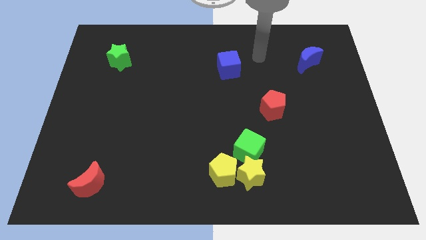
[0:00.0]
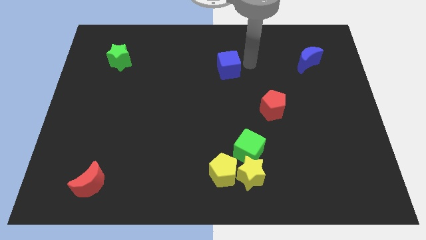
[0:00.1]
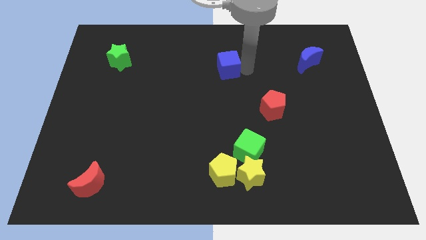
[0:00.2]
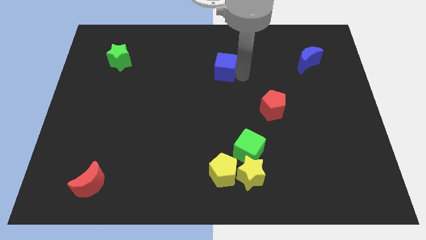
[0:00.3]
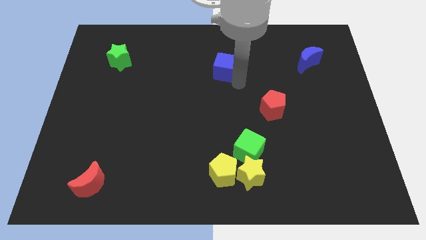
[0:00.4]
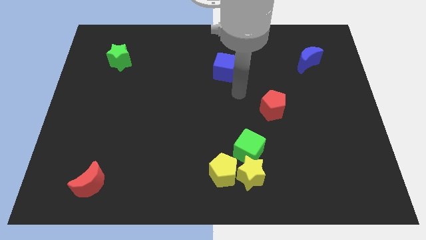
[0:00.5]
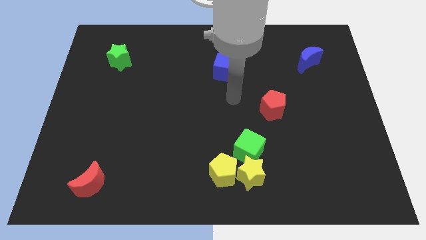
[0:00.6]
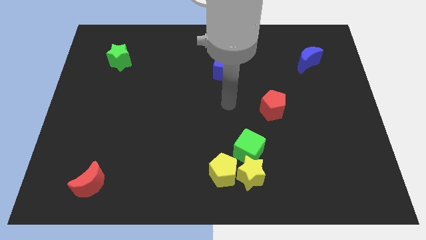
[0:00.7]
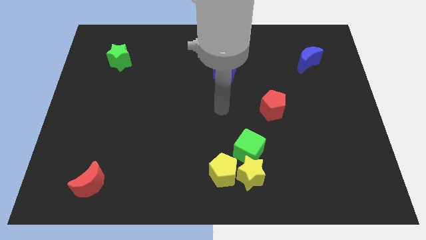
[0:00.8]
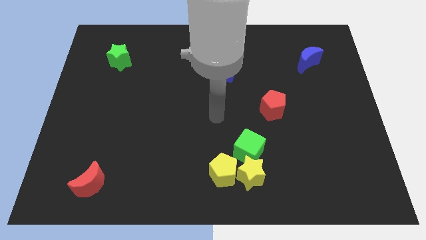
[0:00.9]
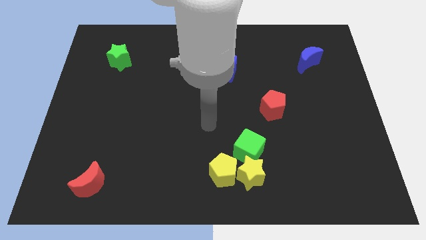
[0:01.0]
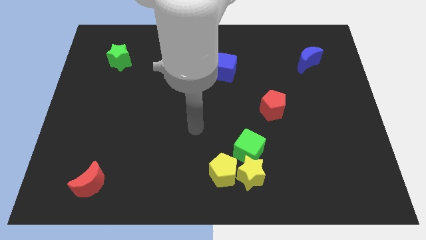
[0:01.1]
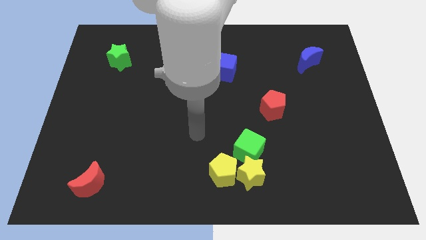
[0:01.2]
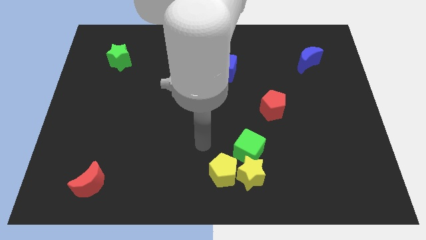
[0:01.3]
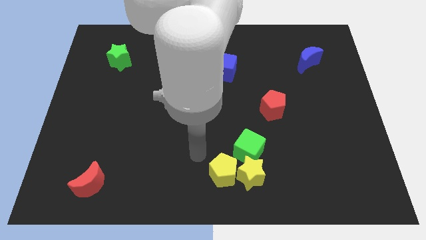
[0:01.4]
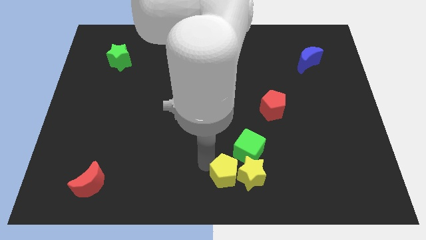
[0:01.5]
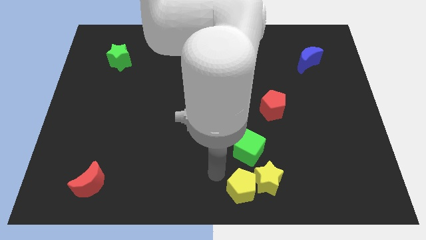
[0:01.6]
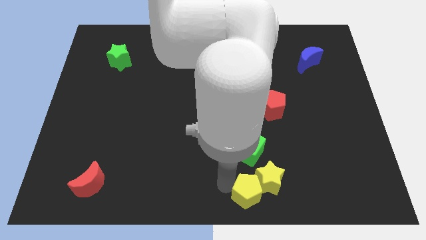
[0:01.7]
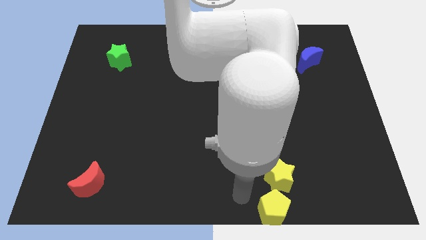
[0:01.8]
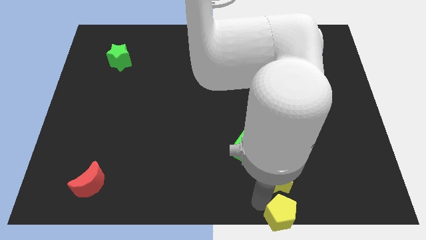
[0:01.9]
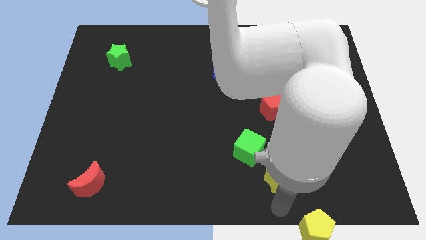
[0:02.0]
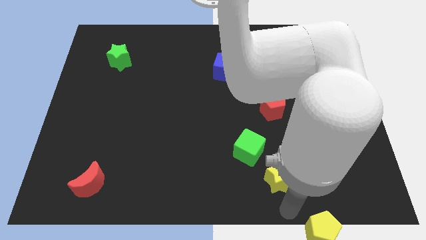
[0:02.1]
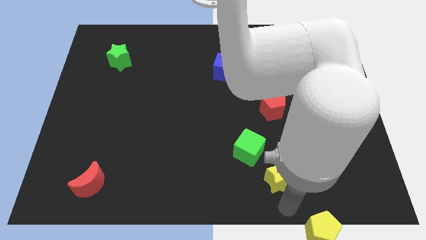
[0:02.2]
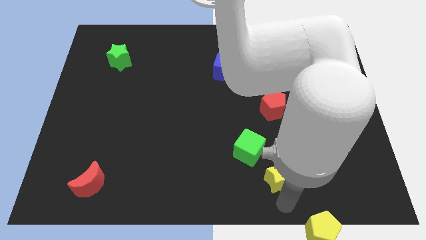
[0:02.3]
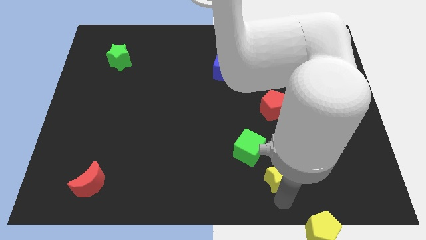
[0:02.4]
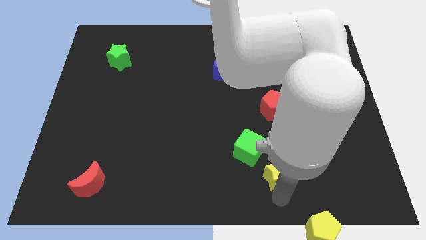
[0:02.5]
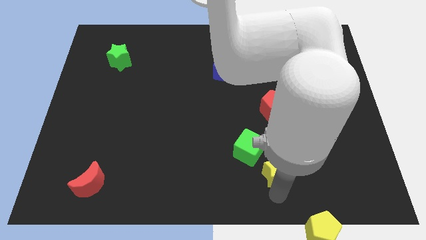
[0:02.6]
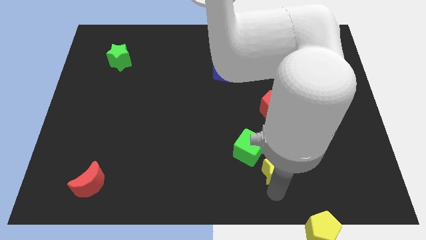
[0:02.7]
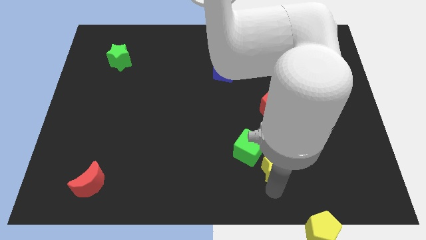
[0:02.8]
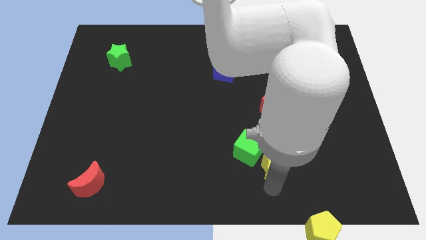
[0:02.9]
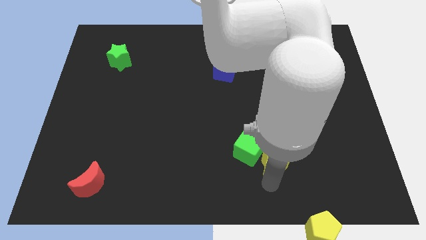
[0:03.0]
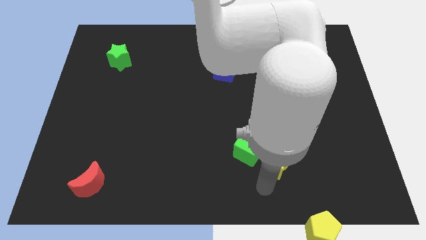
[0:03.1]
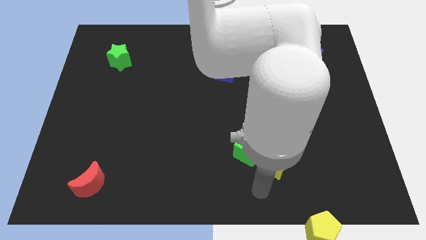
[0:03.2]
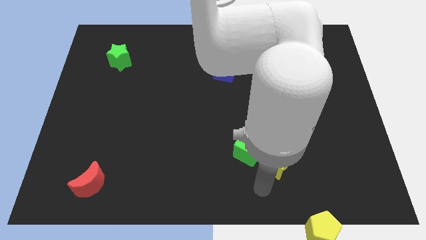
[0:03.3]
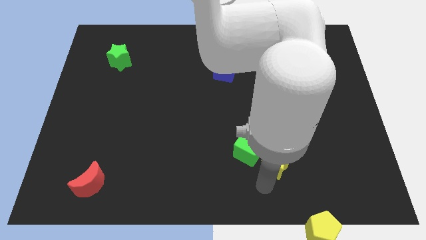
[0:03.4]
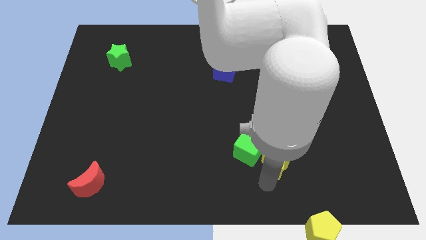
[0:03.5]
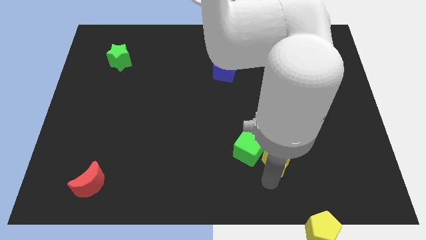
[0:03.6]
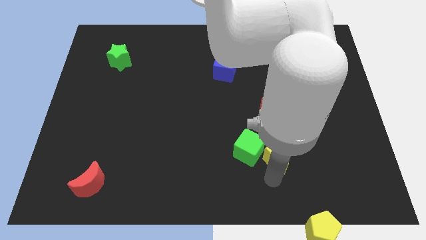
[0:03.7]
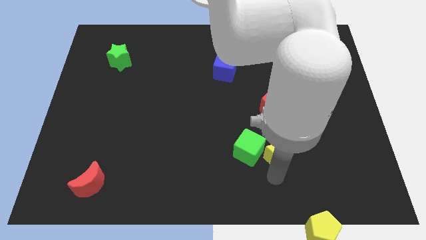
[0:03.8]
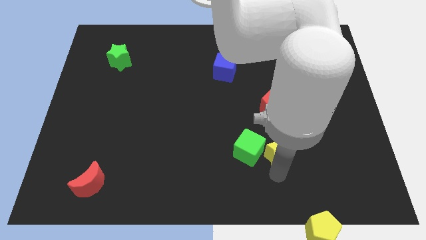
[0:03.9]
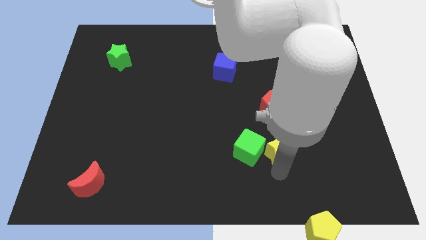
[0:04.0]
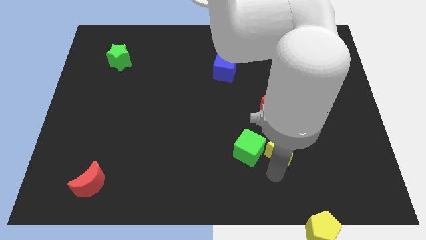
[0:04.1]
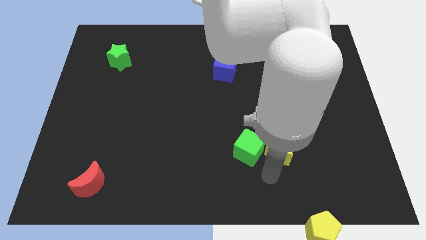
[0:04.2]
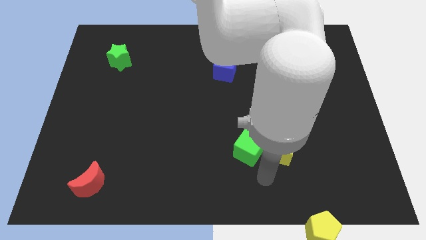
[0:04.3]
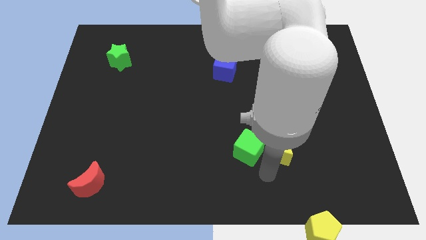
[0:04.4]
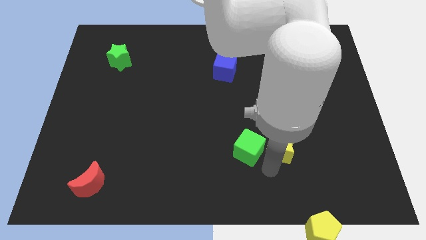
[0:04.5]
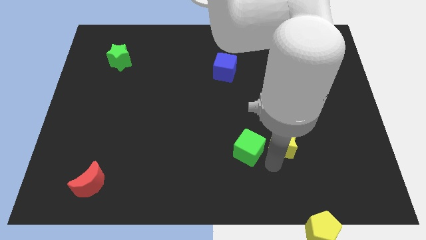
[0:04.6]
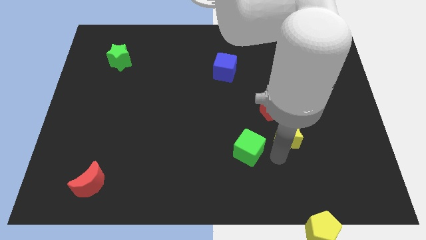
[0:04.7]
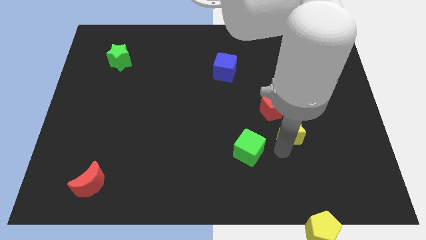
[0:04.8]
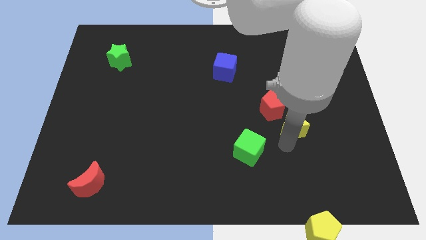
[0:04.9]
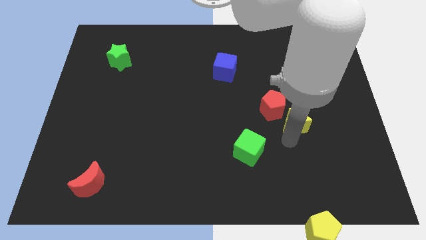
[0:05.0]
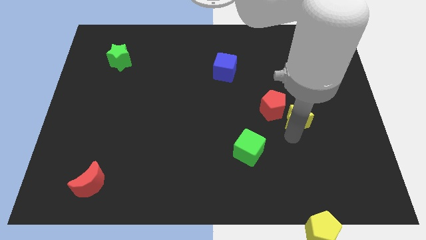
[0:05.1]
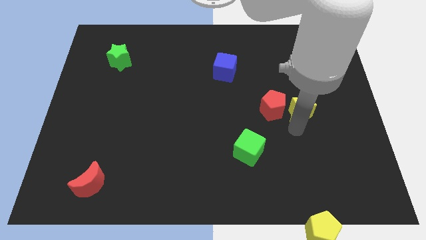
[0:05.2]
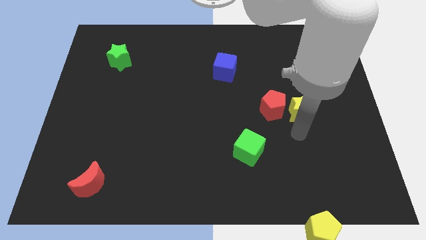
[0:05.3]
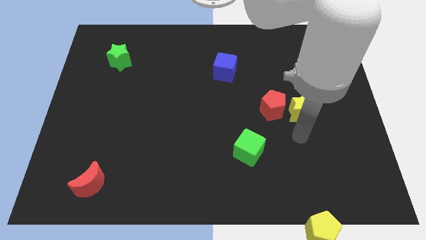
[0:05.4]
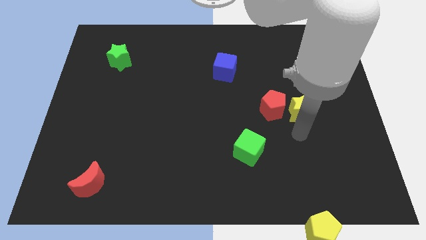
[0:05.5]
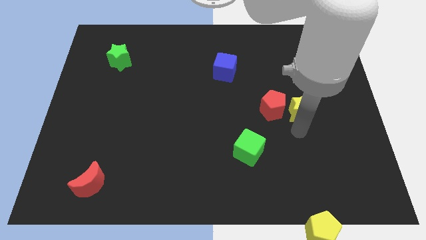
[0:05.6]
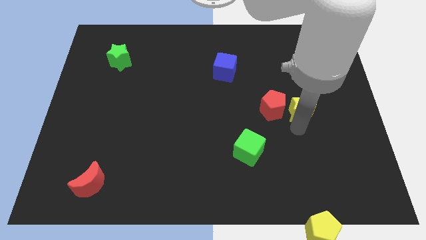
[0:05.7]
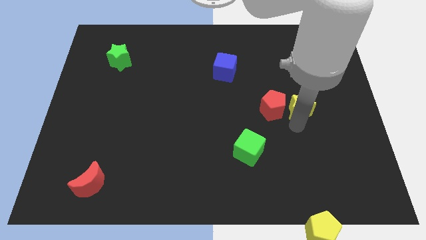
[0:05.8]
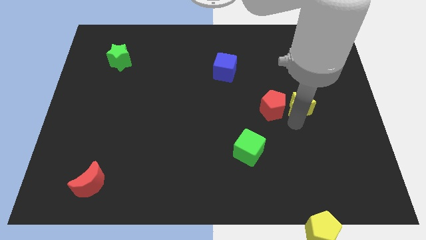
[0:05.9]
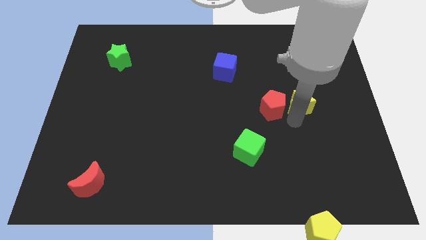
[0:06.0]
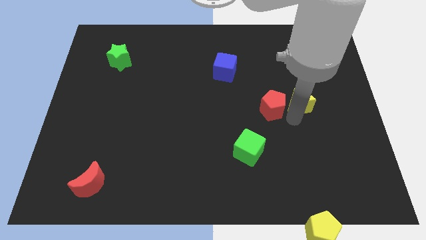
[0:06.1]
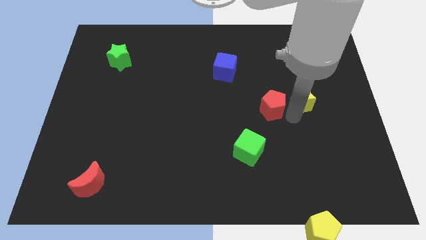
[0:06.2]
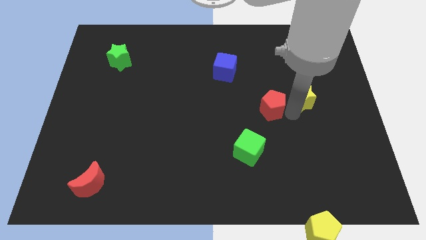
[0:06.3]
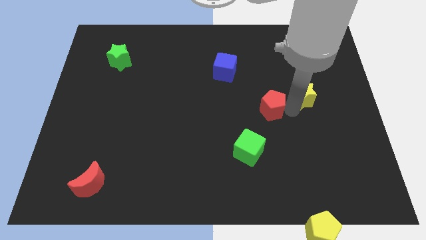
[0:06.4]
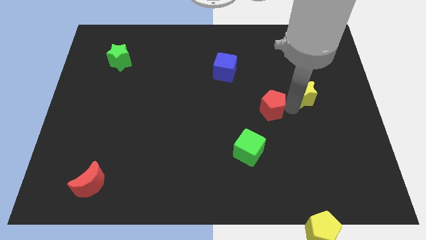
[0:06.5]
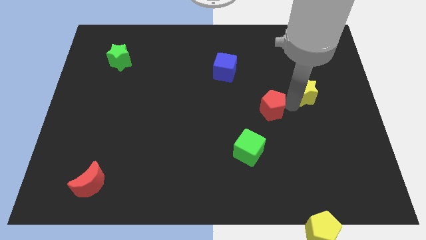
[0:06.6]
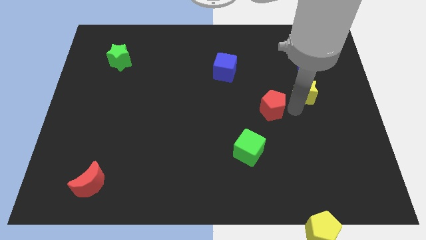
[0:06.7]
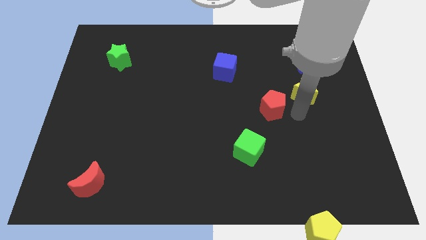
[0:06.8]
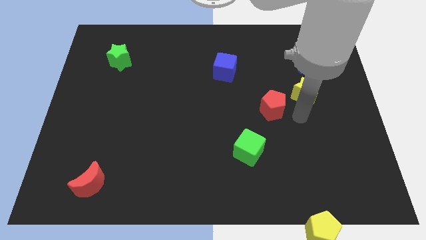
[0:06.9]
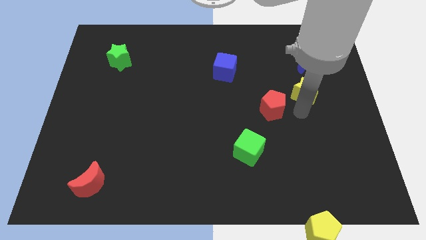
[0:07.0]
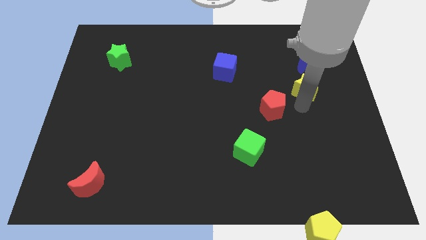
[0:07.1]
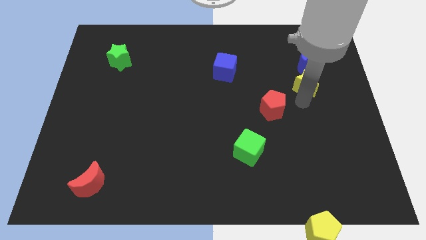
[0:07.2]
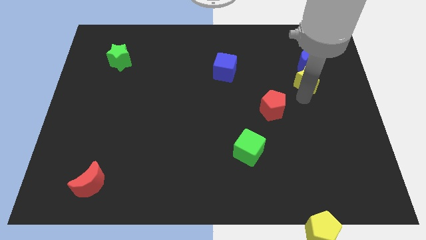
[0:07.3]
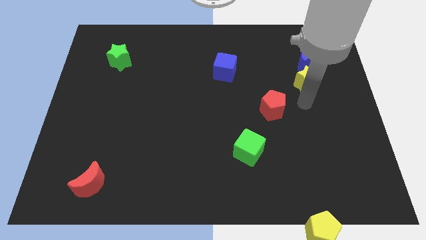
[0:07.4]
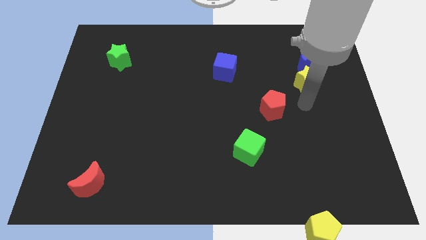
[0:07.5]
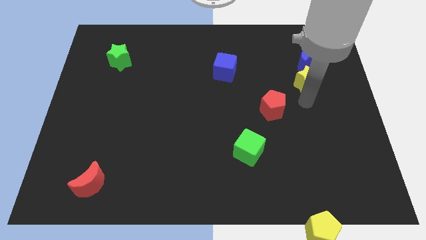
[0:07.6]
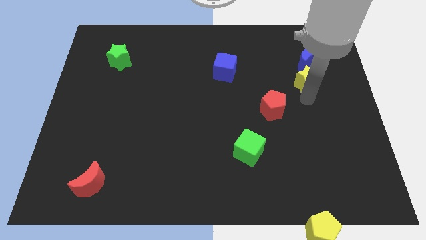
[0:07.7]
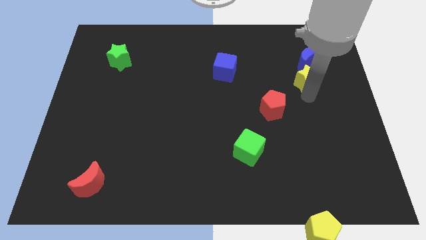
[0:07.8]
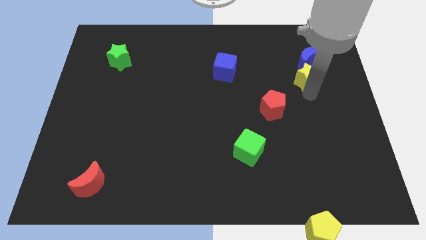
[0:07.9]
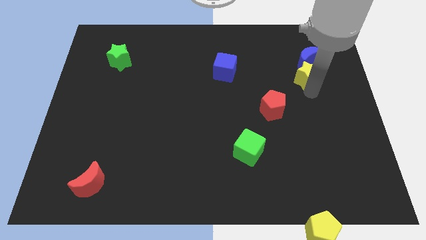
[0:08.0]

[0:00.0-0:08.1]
move the yellow star to the blue moon
